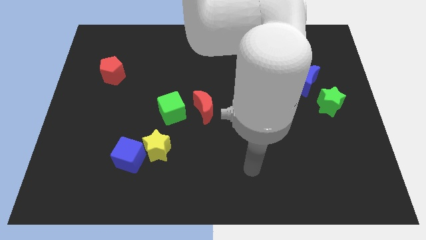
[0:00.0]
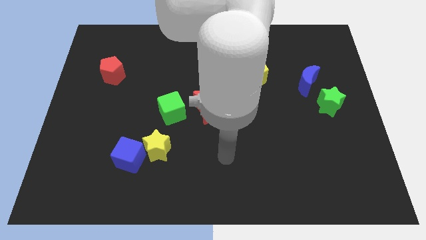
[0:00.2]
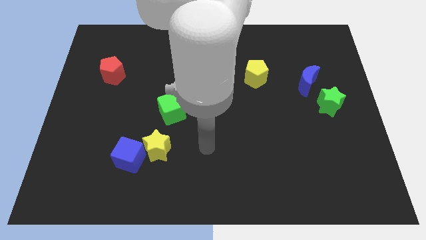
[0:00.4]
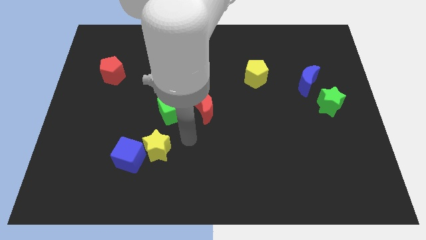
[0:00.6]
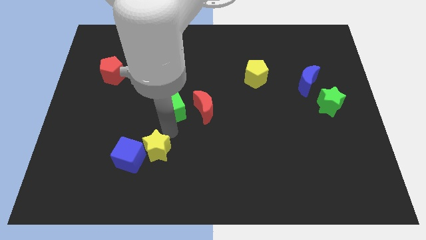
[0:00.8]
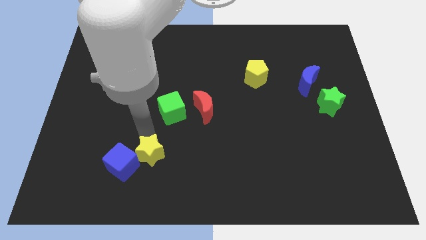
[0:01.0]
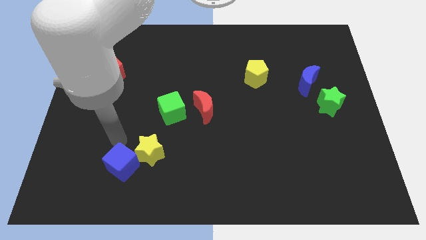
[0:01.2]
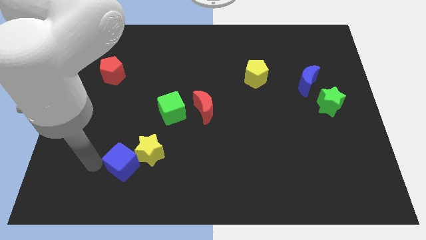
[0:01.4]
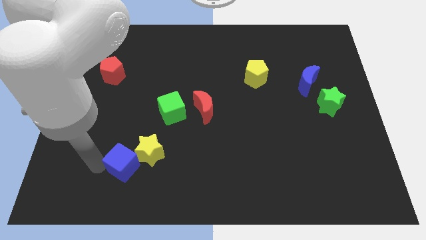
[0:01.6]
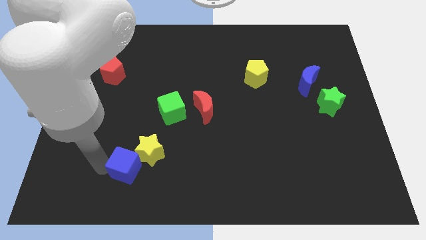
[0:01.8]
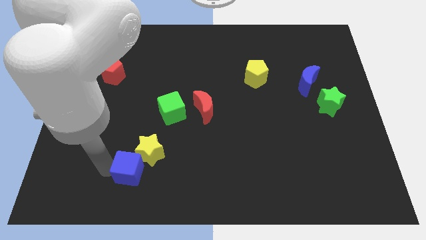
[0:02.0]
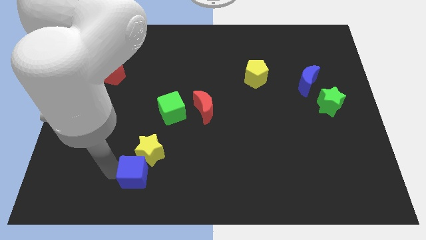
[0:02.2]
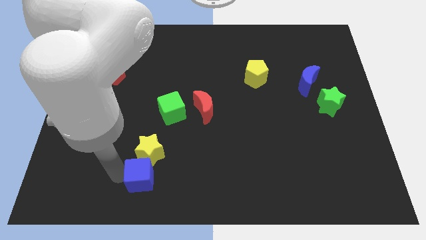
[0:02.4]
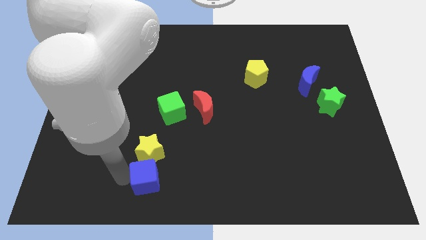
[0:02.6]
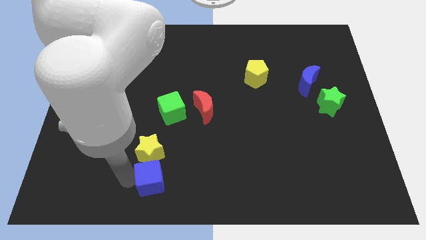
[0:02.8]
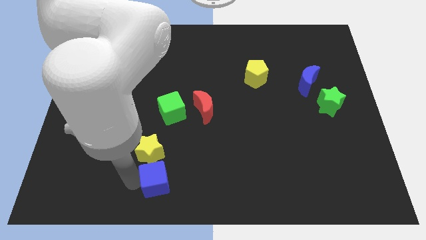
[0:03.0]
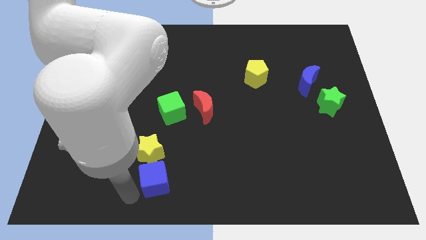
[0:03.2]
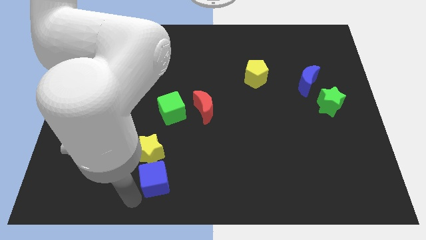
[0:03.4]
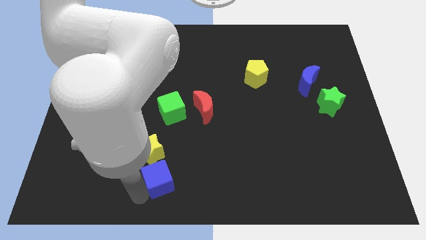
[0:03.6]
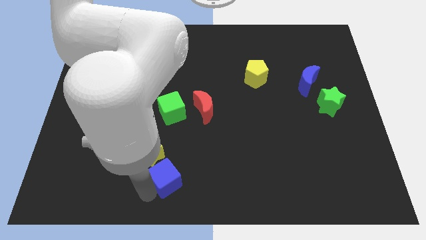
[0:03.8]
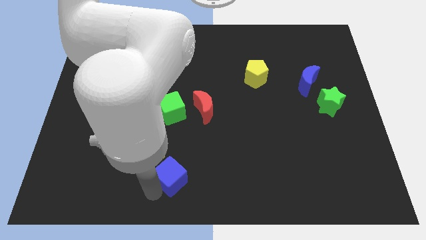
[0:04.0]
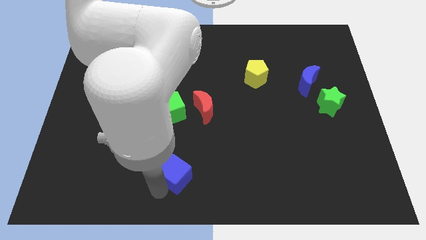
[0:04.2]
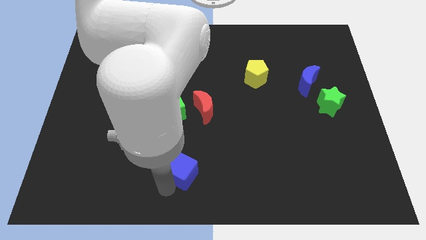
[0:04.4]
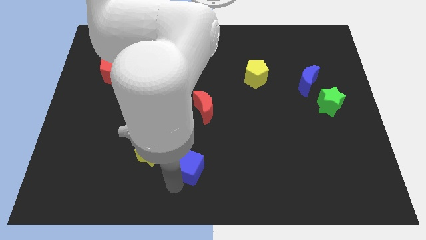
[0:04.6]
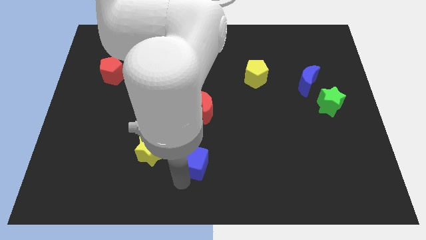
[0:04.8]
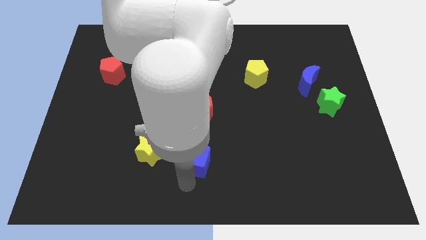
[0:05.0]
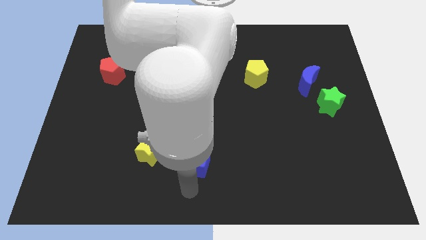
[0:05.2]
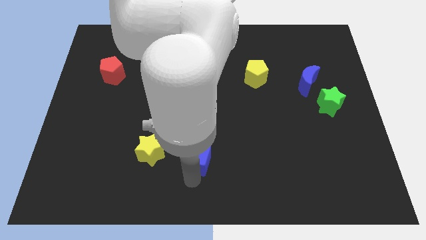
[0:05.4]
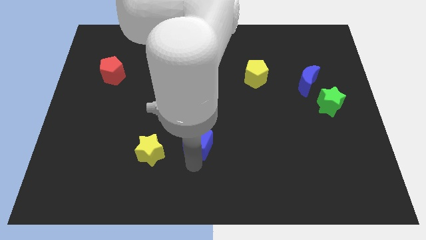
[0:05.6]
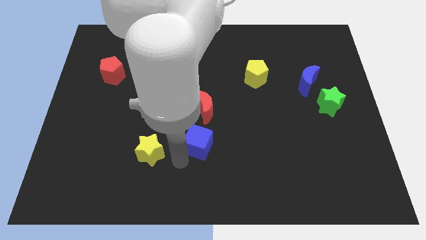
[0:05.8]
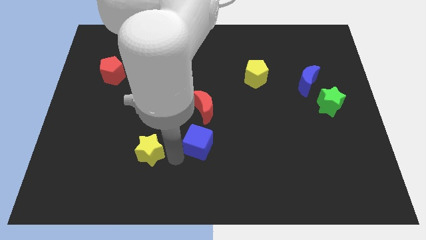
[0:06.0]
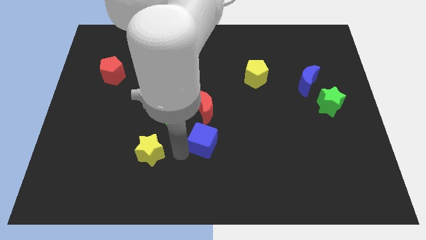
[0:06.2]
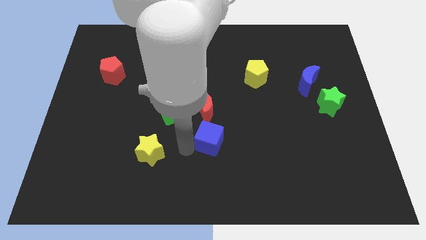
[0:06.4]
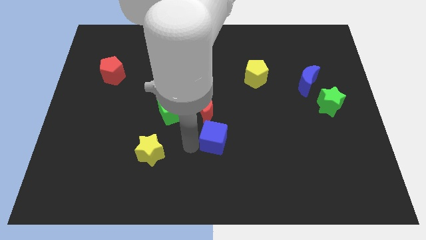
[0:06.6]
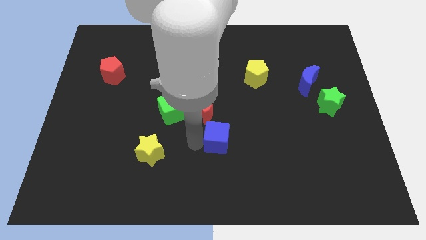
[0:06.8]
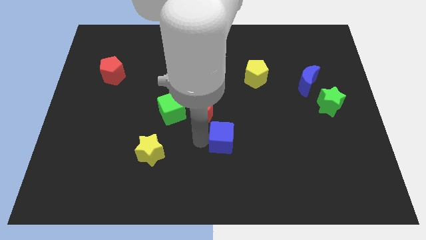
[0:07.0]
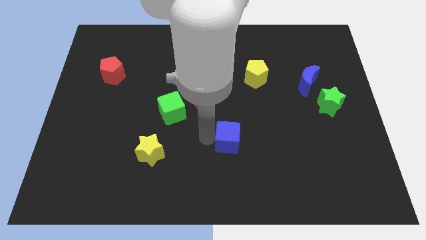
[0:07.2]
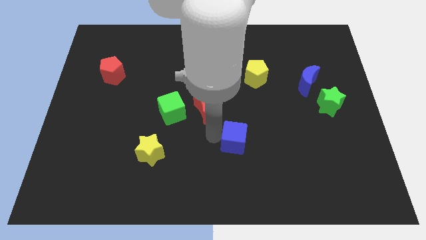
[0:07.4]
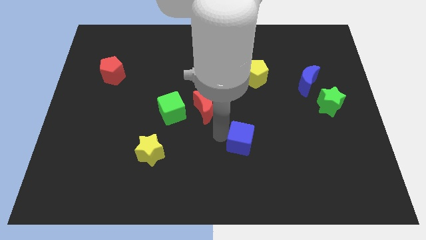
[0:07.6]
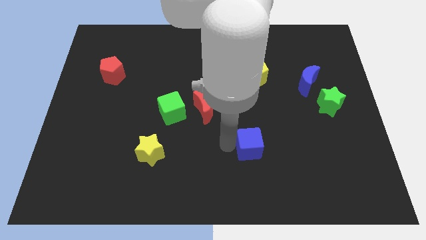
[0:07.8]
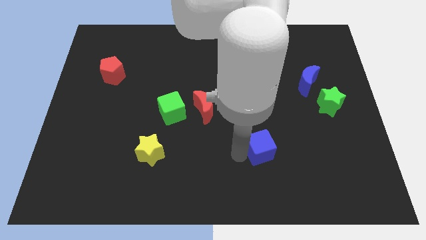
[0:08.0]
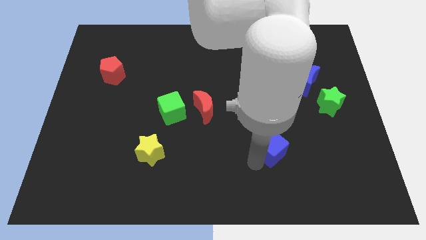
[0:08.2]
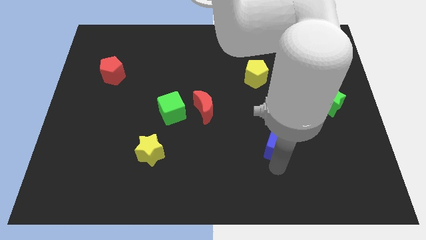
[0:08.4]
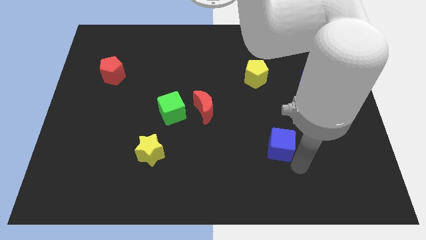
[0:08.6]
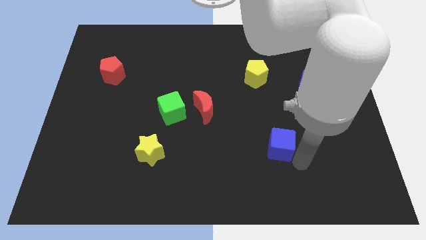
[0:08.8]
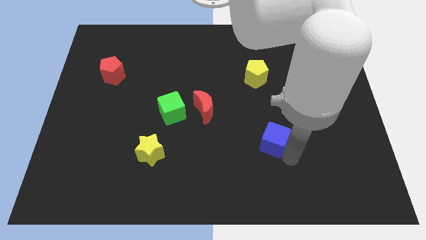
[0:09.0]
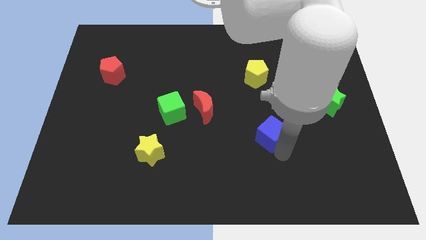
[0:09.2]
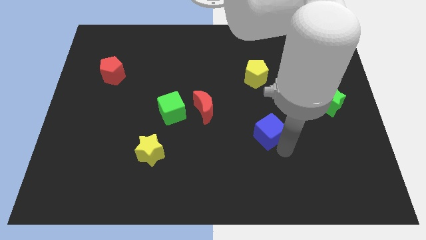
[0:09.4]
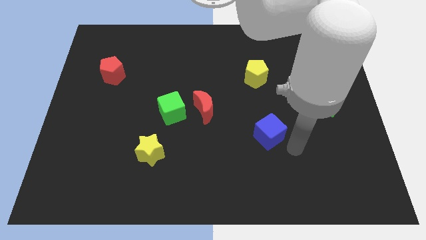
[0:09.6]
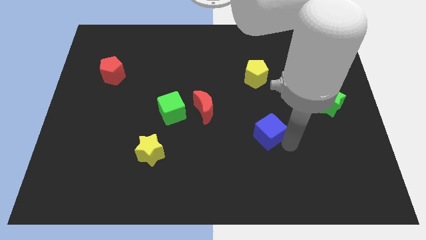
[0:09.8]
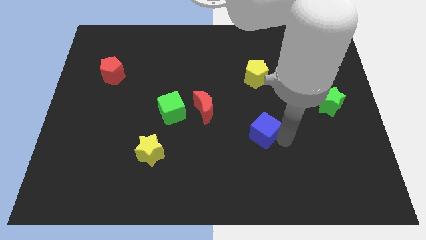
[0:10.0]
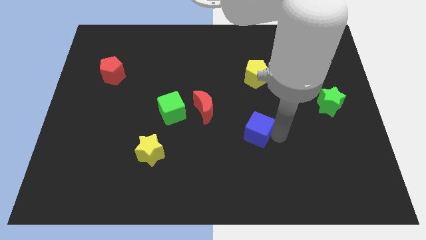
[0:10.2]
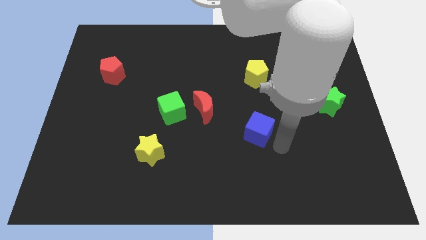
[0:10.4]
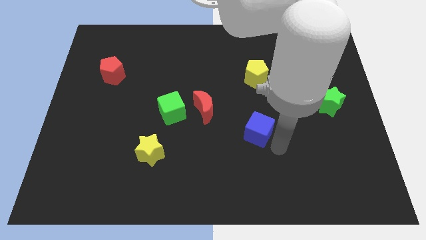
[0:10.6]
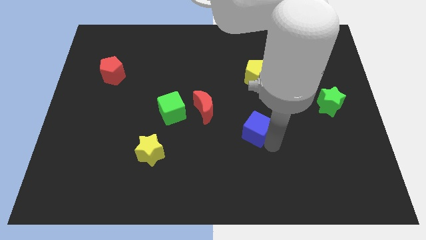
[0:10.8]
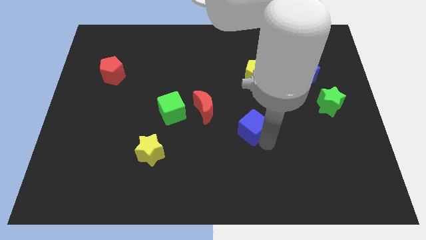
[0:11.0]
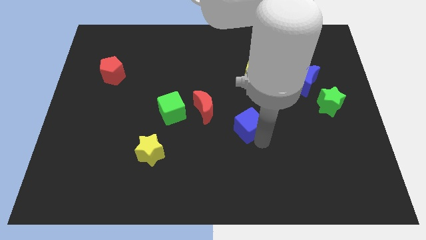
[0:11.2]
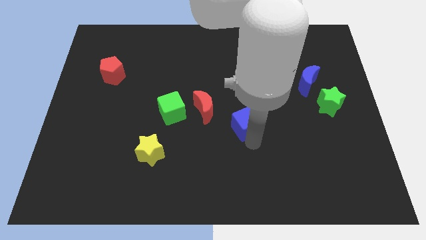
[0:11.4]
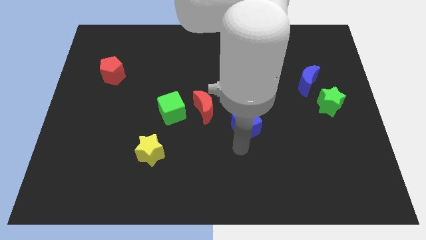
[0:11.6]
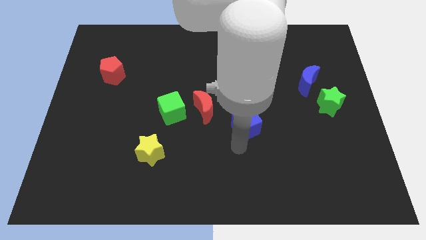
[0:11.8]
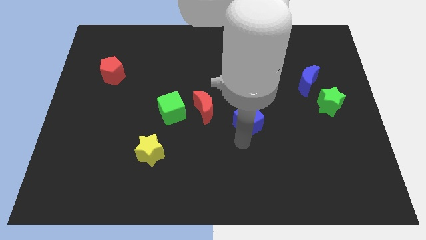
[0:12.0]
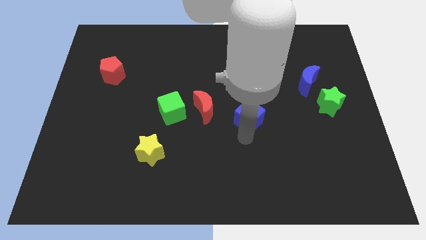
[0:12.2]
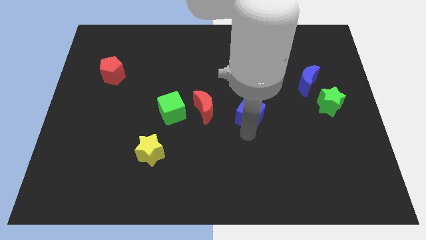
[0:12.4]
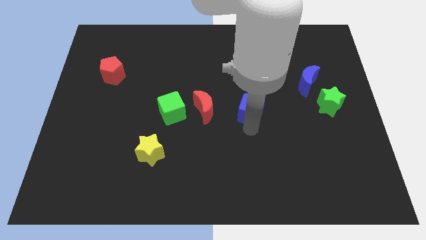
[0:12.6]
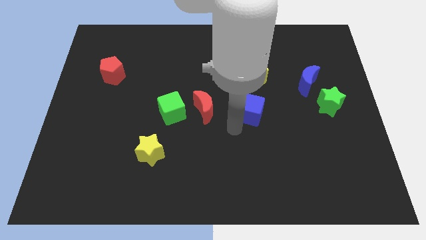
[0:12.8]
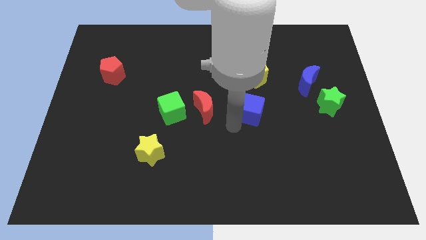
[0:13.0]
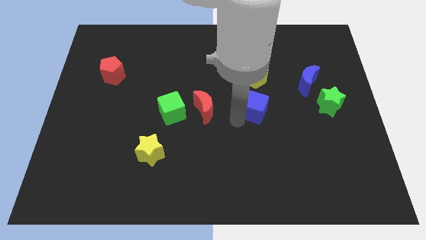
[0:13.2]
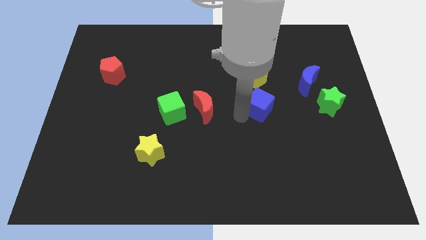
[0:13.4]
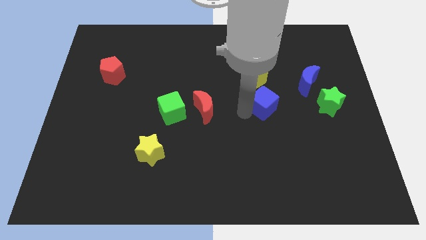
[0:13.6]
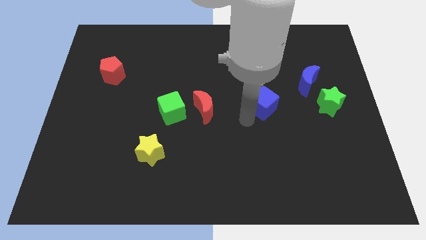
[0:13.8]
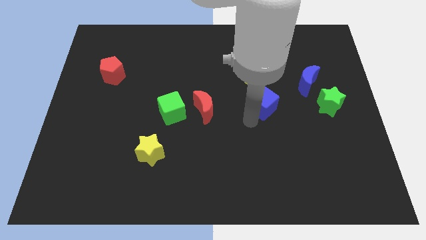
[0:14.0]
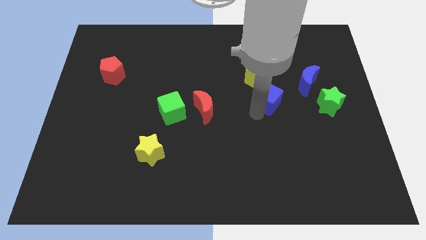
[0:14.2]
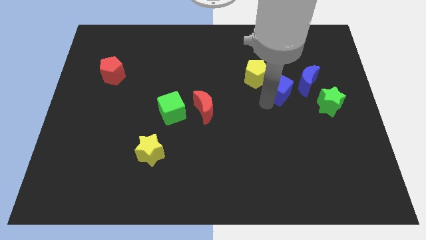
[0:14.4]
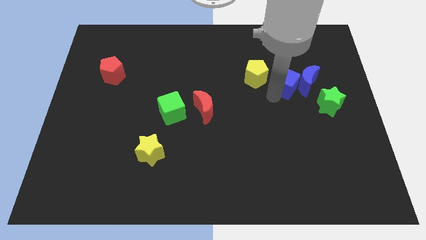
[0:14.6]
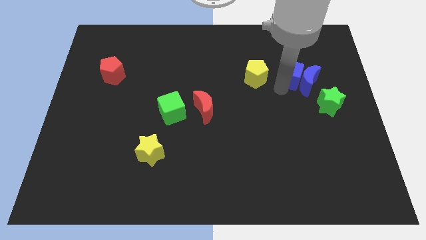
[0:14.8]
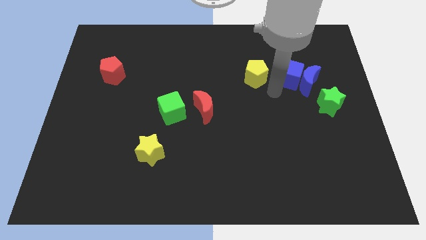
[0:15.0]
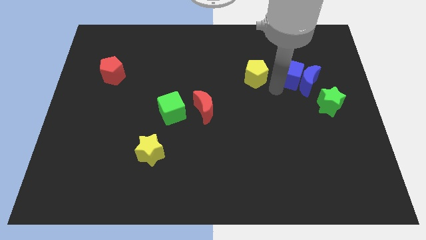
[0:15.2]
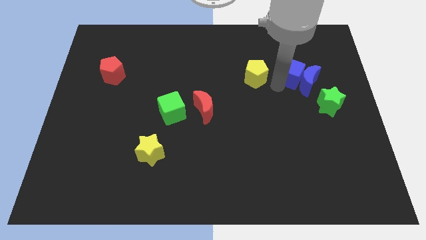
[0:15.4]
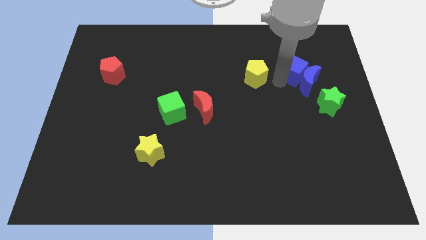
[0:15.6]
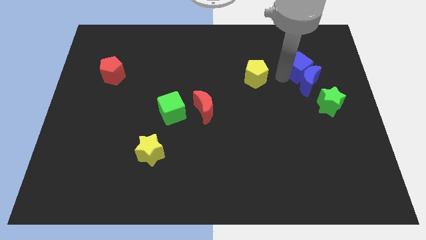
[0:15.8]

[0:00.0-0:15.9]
slide the blue cube diagonally up and to the right of the blue moon

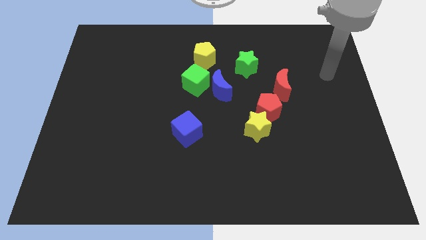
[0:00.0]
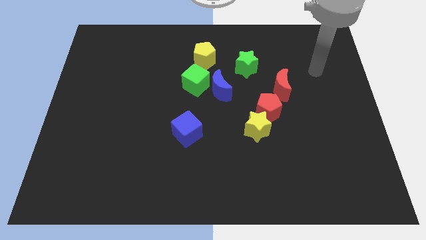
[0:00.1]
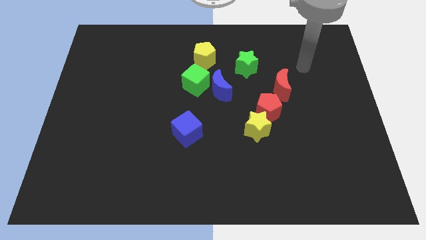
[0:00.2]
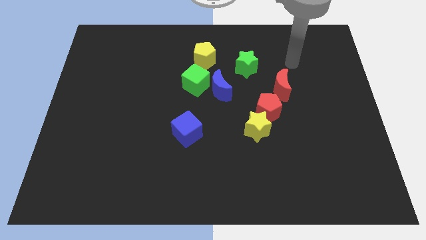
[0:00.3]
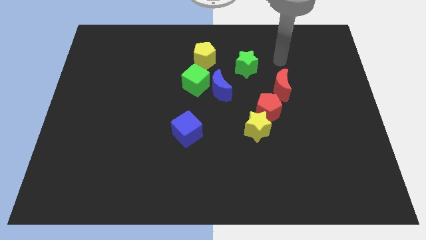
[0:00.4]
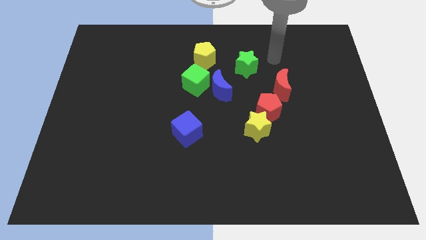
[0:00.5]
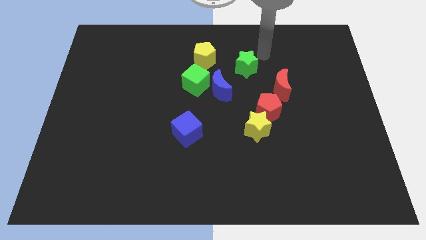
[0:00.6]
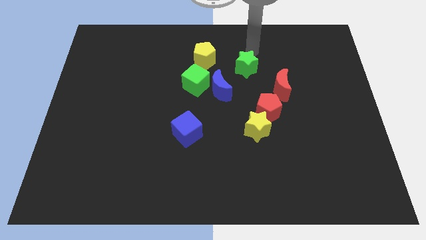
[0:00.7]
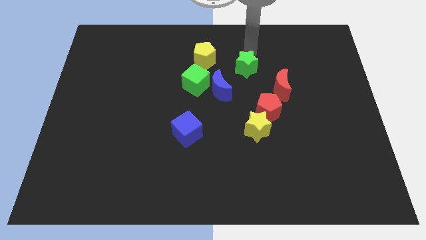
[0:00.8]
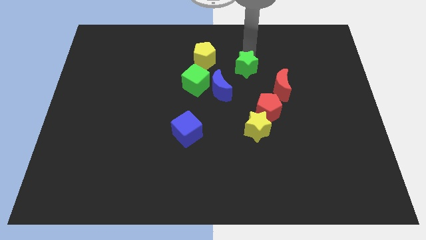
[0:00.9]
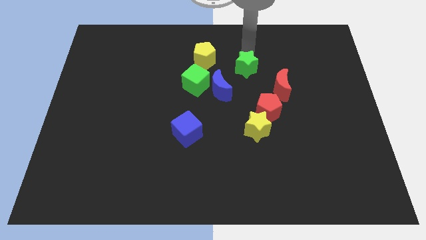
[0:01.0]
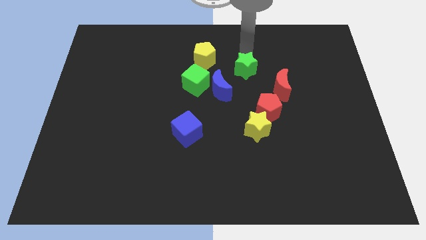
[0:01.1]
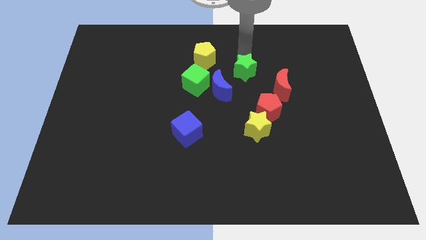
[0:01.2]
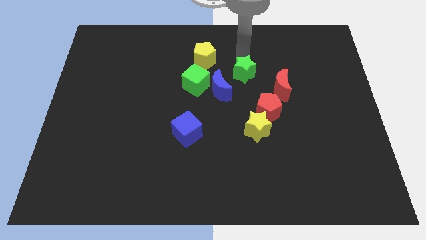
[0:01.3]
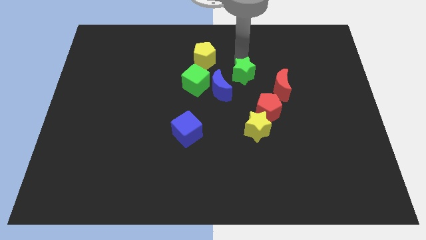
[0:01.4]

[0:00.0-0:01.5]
push the green star to the left side of the red moon
